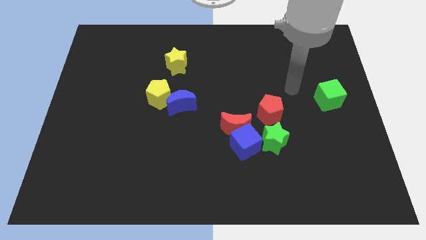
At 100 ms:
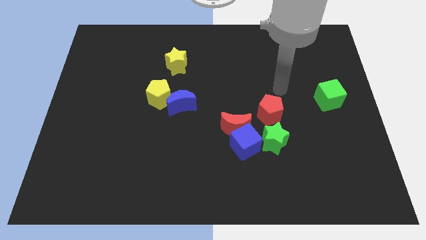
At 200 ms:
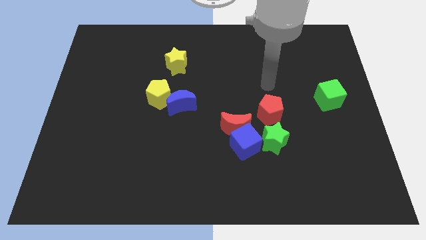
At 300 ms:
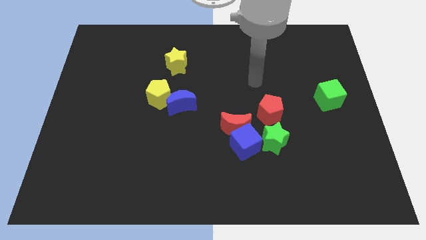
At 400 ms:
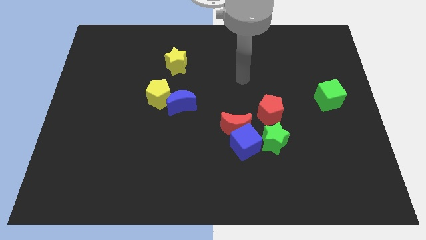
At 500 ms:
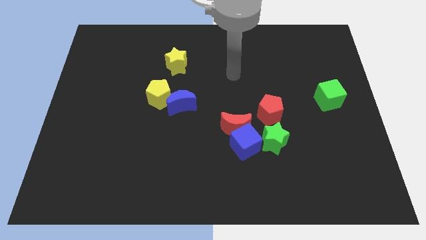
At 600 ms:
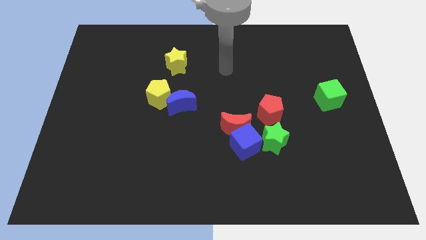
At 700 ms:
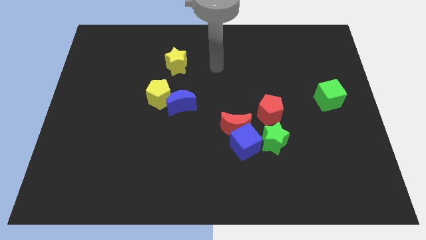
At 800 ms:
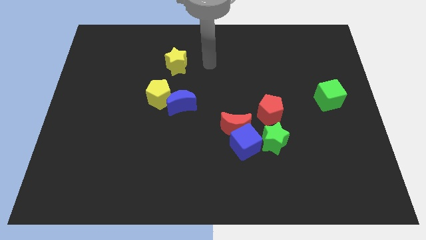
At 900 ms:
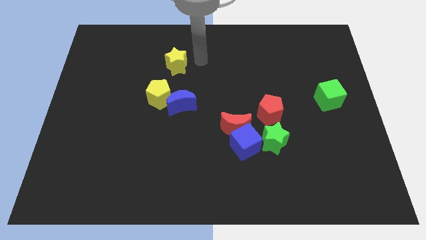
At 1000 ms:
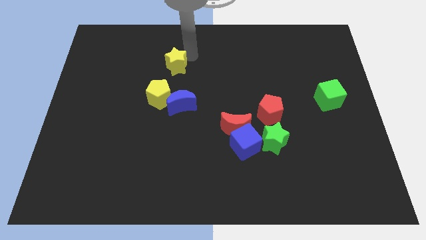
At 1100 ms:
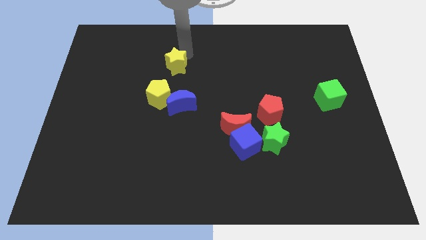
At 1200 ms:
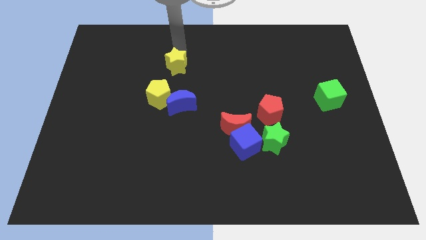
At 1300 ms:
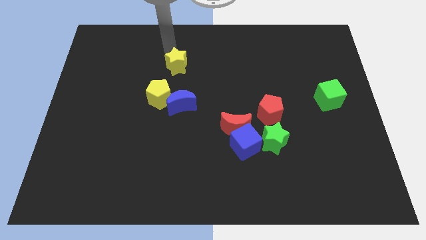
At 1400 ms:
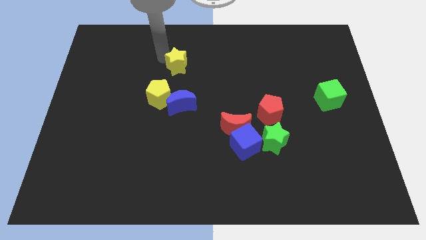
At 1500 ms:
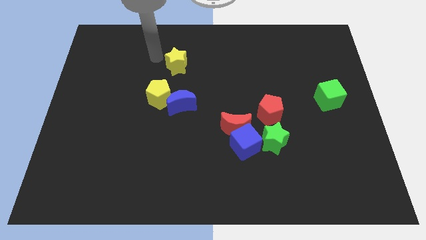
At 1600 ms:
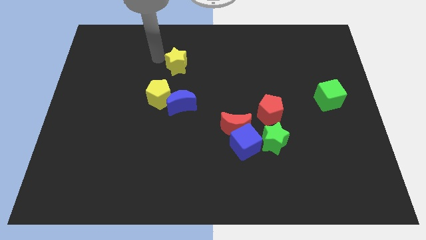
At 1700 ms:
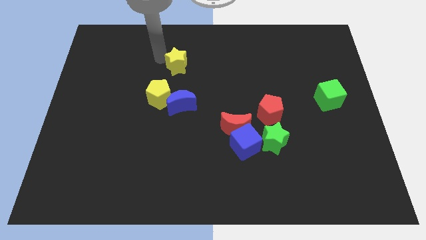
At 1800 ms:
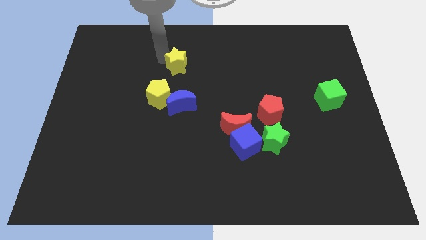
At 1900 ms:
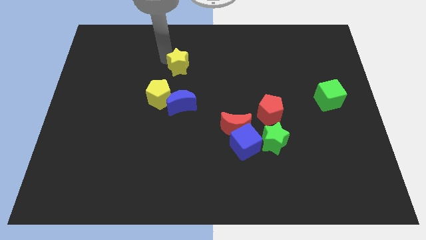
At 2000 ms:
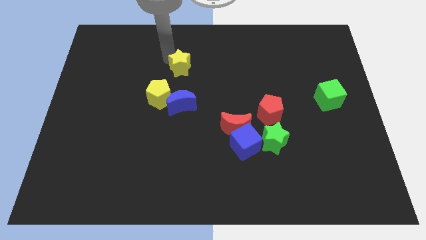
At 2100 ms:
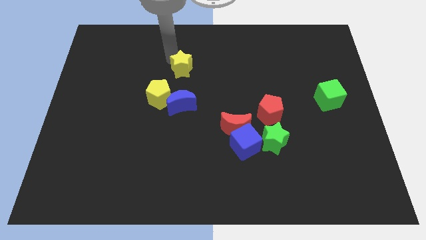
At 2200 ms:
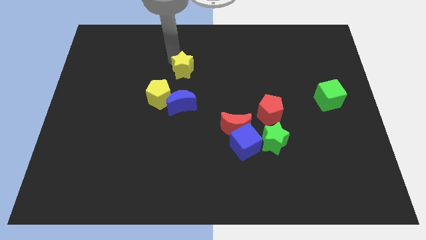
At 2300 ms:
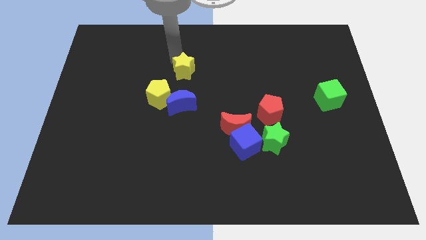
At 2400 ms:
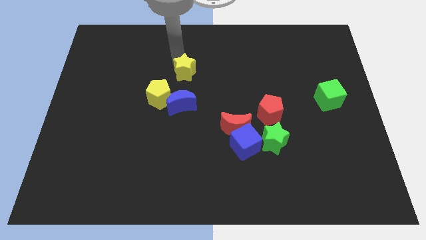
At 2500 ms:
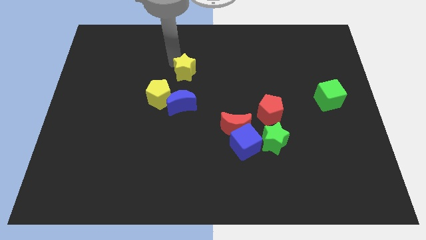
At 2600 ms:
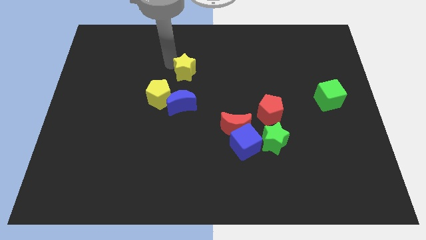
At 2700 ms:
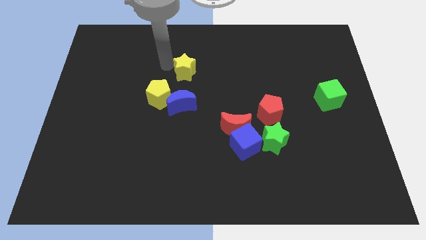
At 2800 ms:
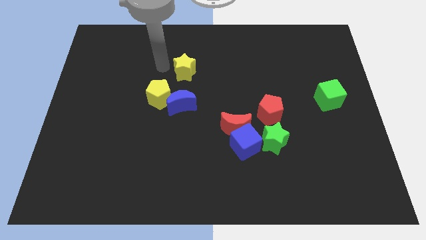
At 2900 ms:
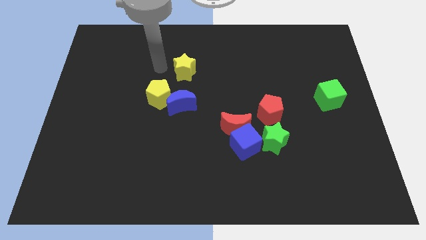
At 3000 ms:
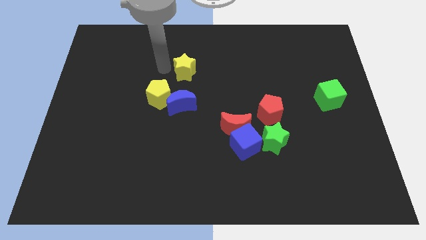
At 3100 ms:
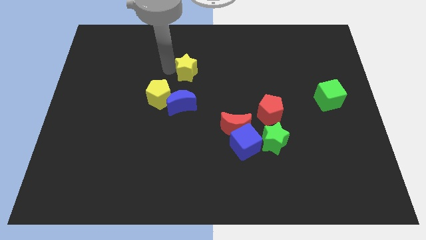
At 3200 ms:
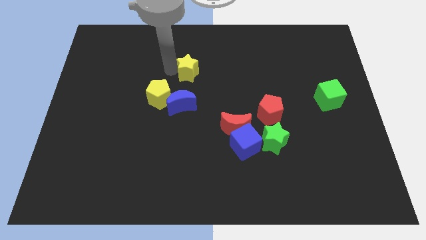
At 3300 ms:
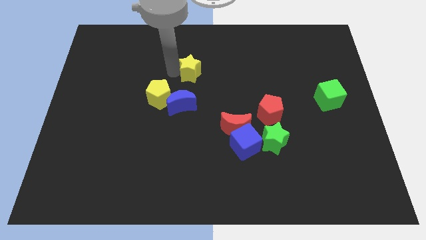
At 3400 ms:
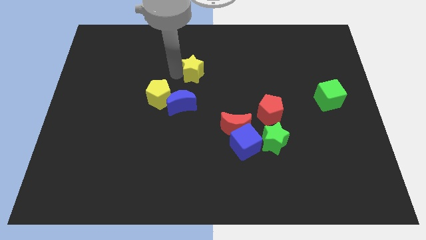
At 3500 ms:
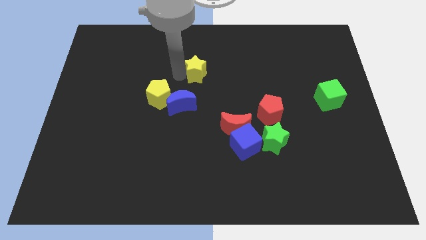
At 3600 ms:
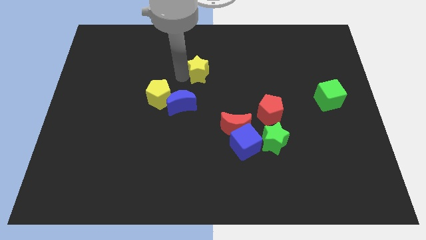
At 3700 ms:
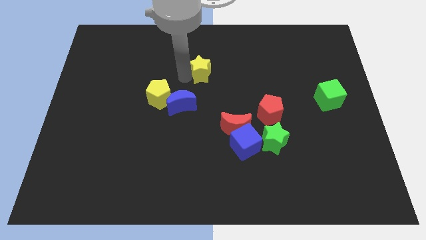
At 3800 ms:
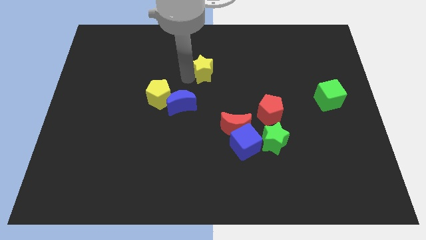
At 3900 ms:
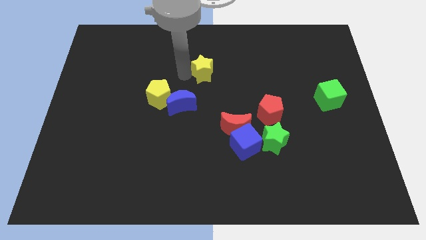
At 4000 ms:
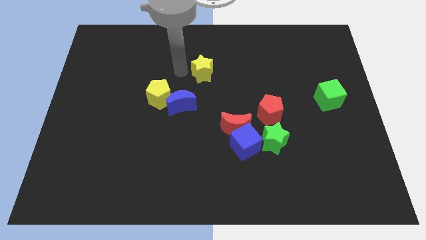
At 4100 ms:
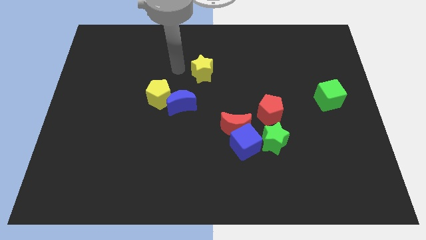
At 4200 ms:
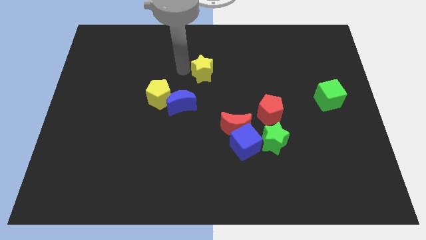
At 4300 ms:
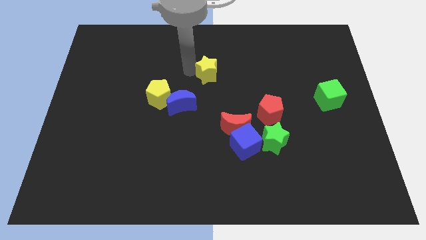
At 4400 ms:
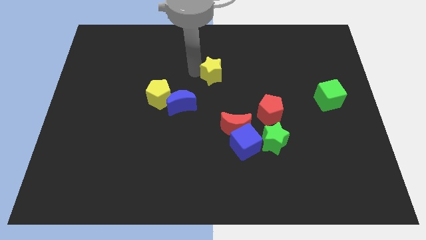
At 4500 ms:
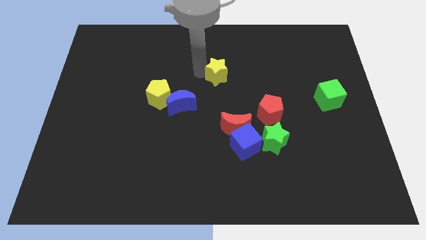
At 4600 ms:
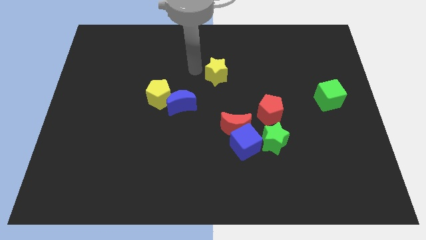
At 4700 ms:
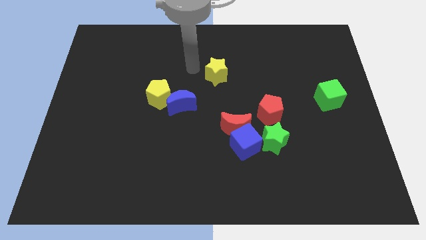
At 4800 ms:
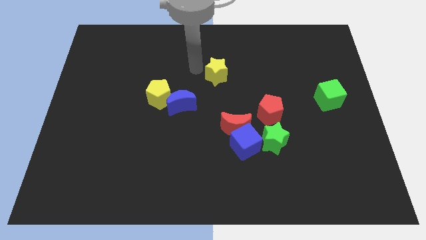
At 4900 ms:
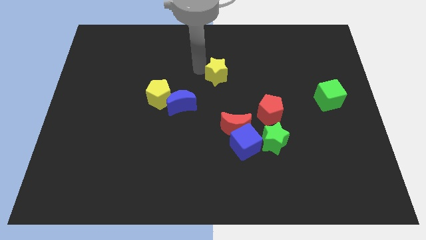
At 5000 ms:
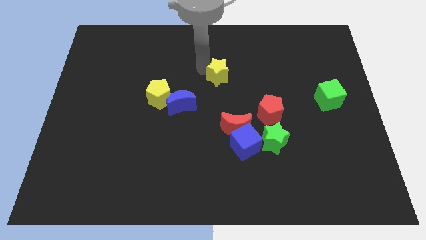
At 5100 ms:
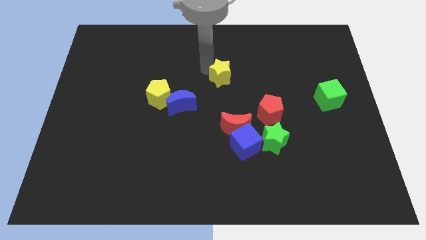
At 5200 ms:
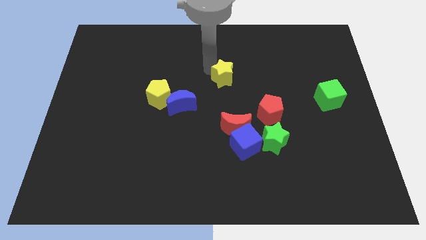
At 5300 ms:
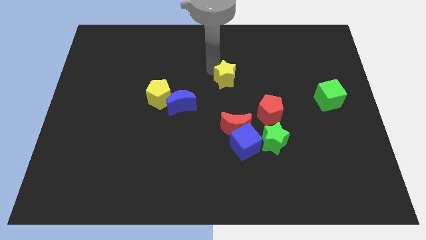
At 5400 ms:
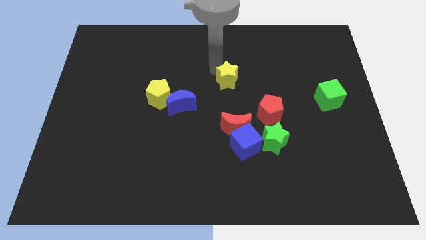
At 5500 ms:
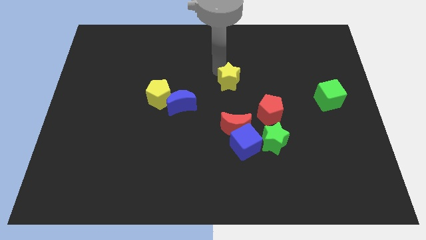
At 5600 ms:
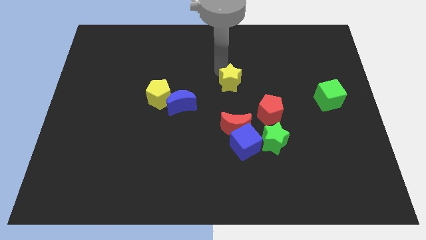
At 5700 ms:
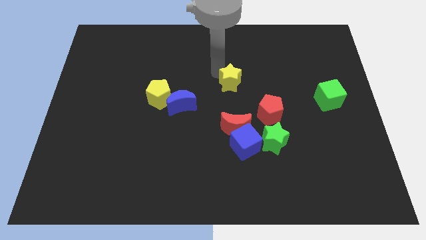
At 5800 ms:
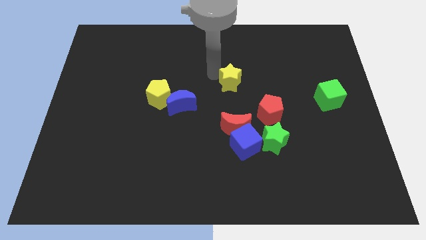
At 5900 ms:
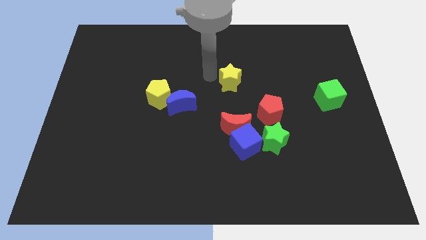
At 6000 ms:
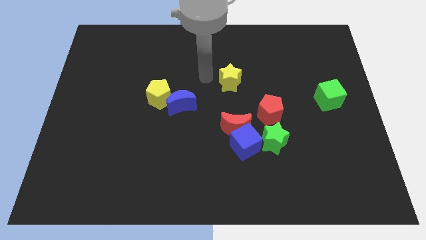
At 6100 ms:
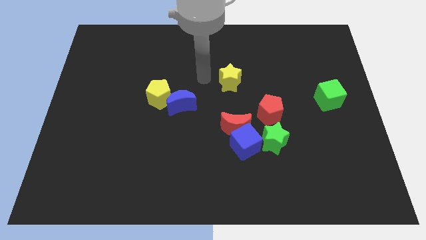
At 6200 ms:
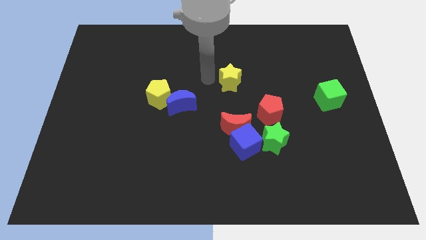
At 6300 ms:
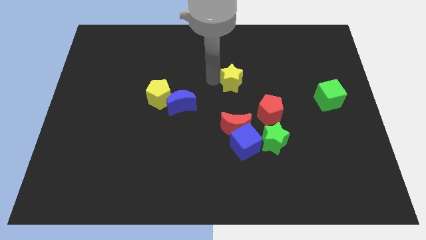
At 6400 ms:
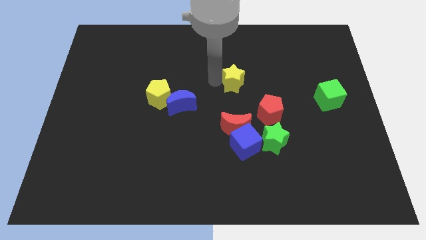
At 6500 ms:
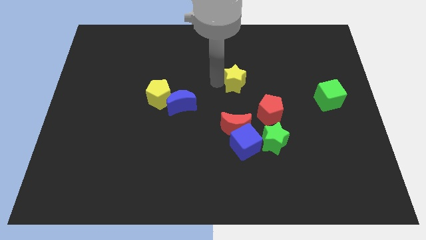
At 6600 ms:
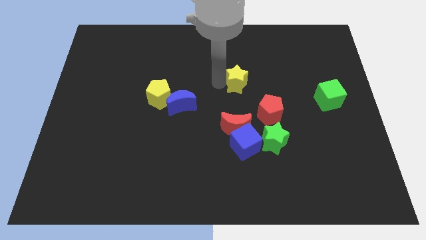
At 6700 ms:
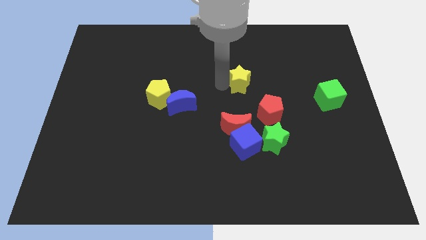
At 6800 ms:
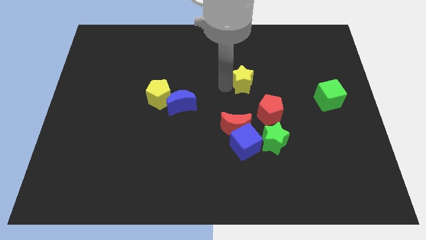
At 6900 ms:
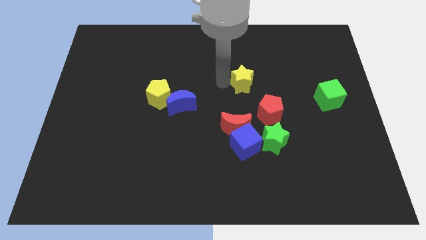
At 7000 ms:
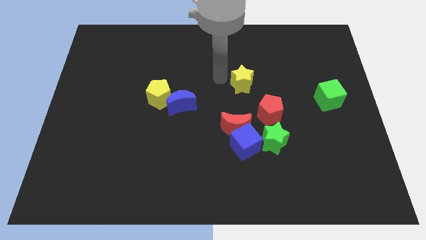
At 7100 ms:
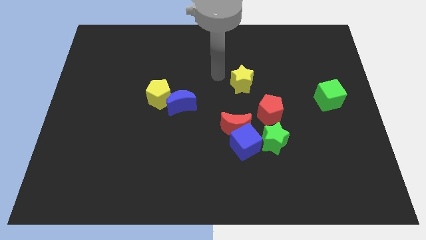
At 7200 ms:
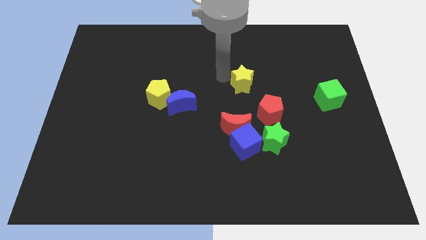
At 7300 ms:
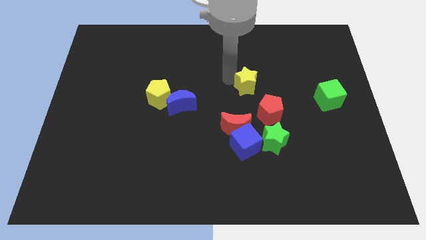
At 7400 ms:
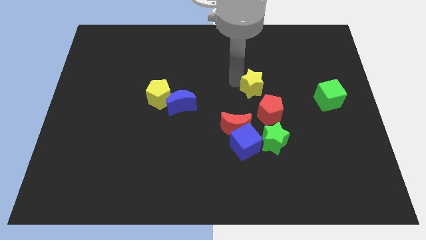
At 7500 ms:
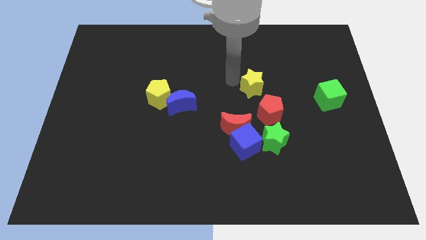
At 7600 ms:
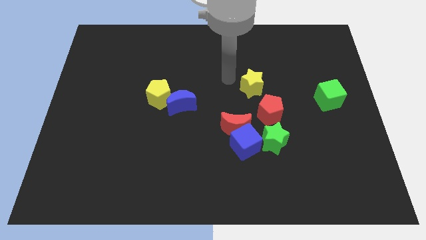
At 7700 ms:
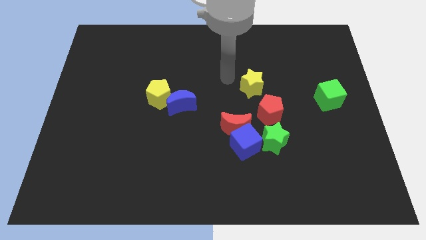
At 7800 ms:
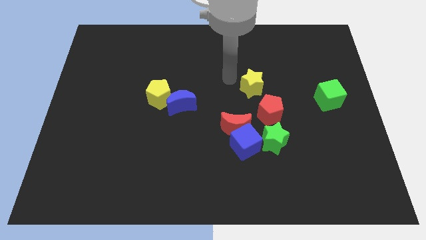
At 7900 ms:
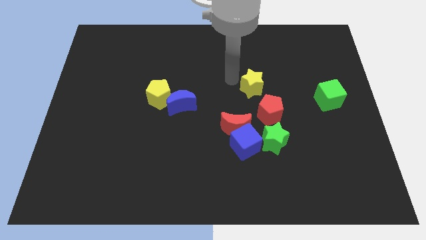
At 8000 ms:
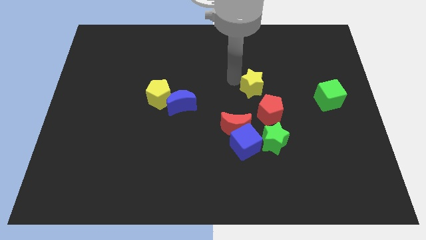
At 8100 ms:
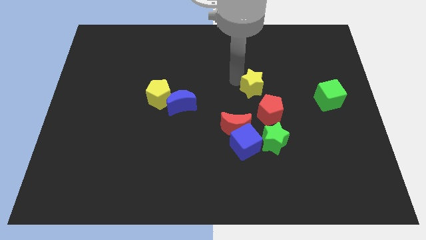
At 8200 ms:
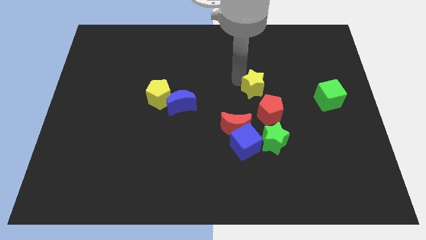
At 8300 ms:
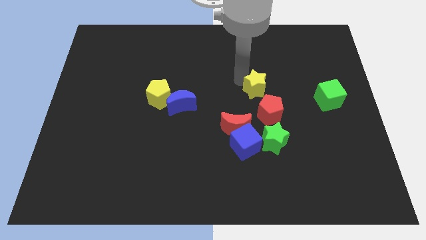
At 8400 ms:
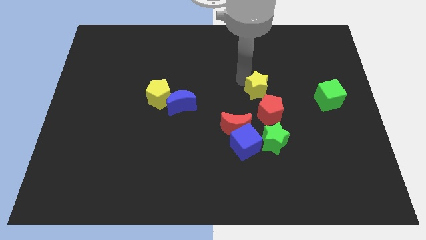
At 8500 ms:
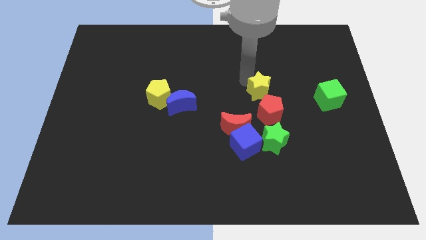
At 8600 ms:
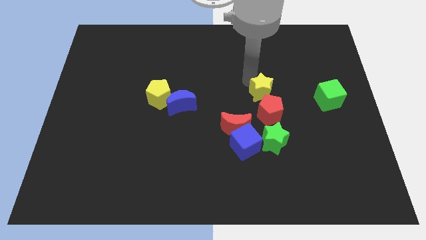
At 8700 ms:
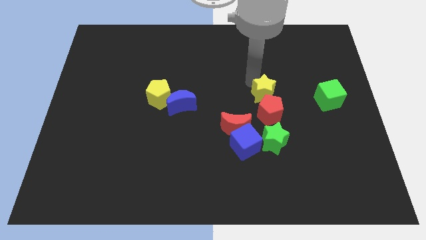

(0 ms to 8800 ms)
slide the yellow star to the left of the green cube
